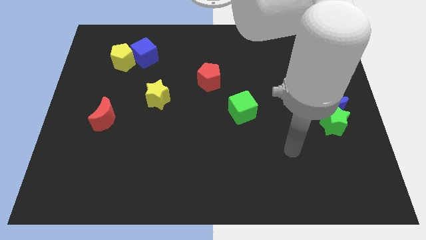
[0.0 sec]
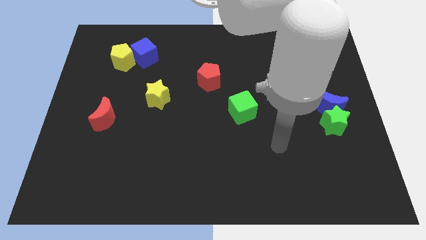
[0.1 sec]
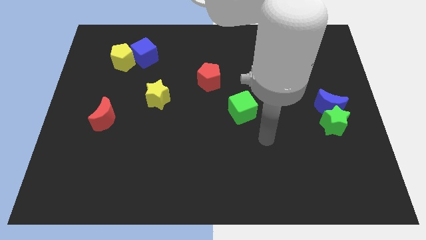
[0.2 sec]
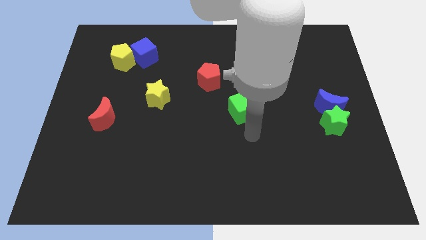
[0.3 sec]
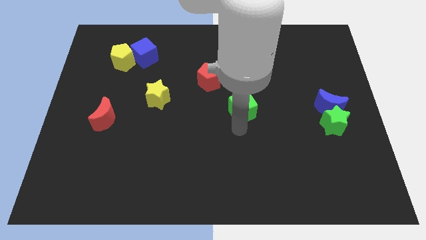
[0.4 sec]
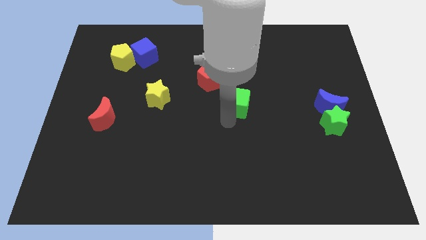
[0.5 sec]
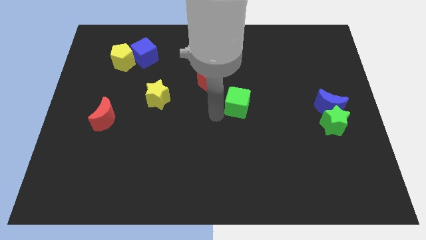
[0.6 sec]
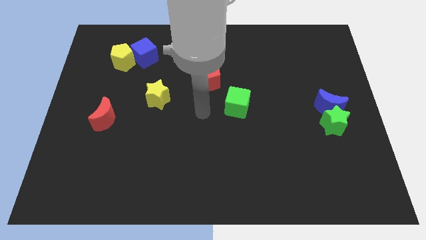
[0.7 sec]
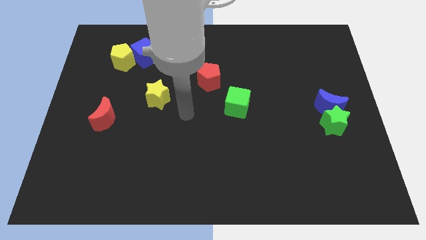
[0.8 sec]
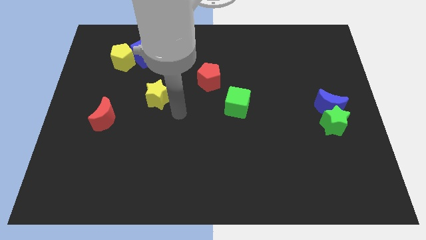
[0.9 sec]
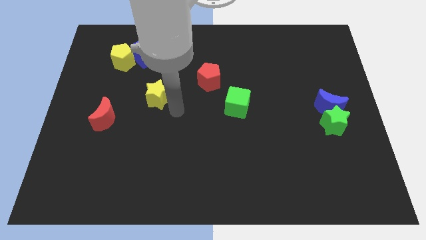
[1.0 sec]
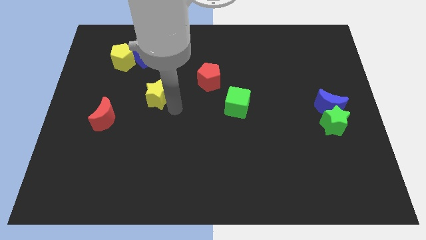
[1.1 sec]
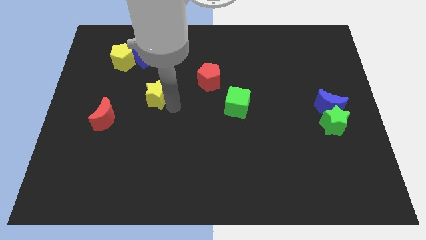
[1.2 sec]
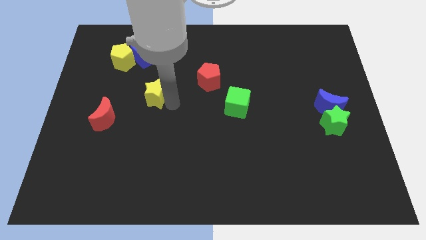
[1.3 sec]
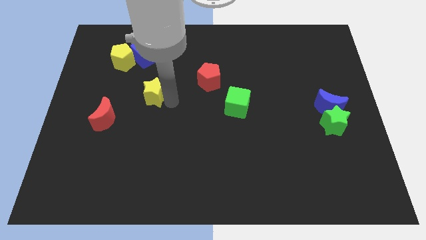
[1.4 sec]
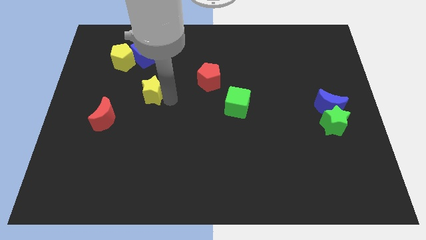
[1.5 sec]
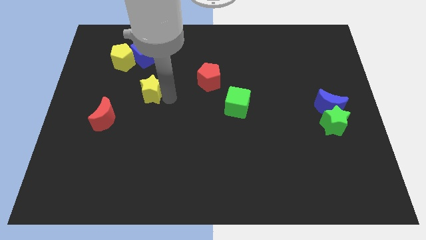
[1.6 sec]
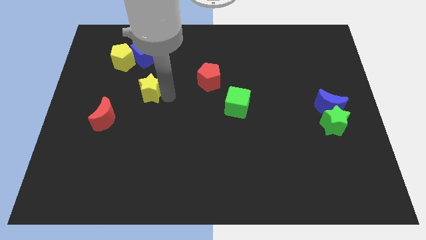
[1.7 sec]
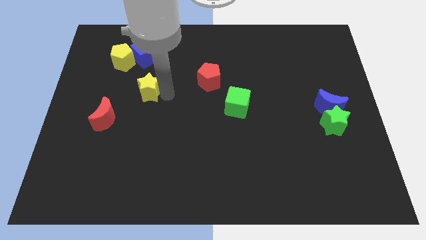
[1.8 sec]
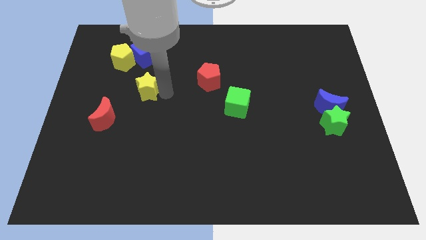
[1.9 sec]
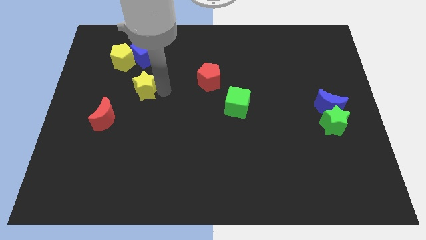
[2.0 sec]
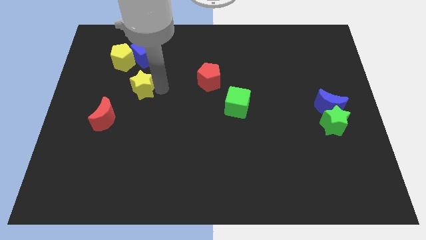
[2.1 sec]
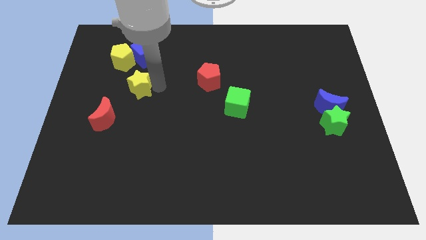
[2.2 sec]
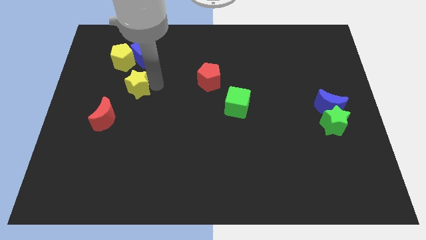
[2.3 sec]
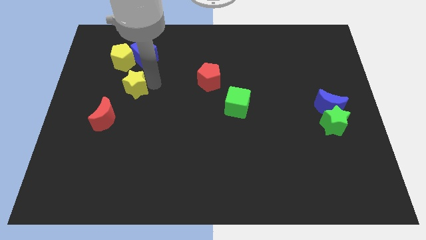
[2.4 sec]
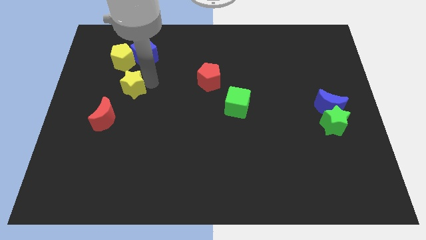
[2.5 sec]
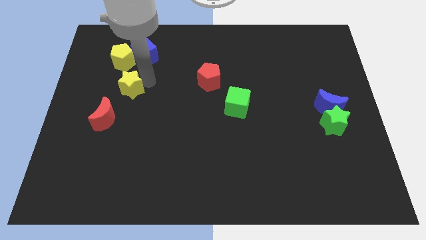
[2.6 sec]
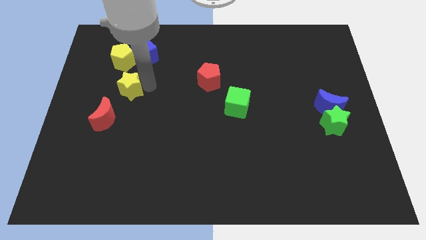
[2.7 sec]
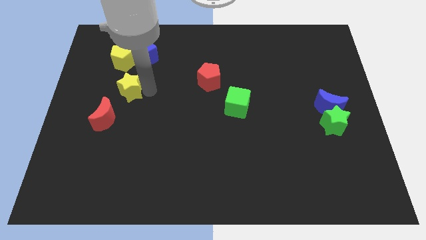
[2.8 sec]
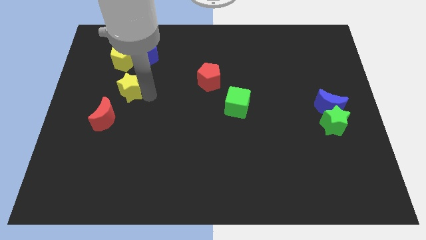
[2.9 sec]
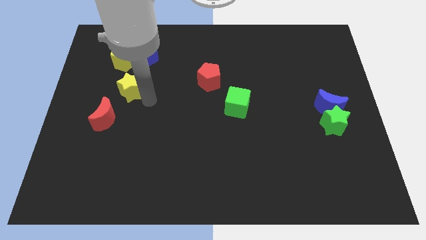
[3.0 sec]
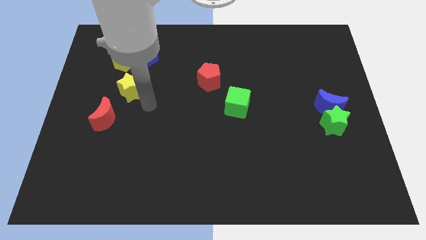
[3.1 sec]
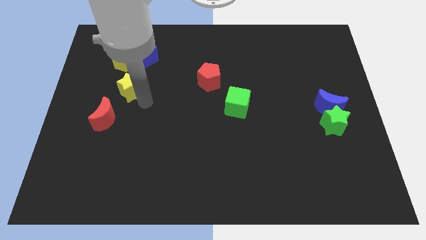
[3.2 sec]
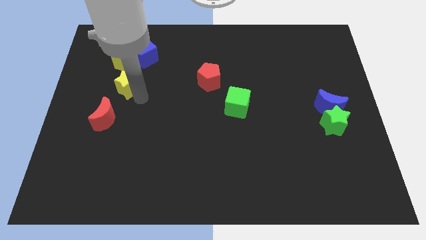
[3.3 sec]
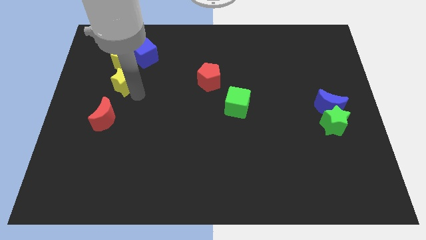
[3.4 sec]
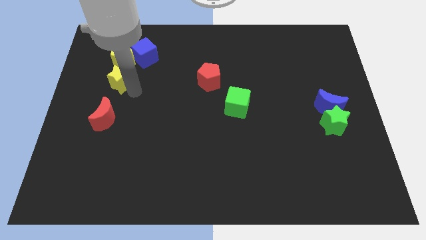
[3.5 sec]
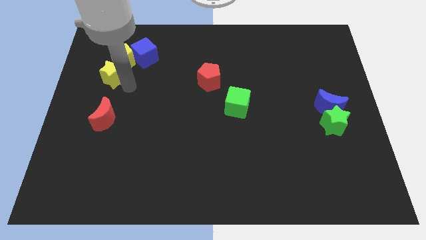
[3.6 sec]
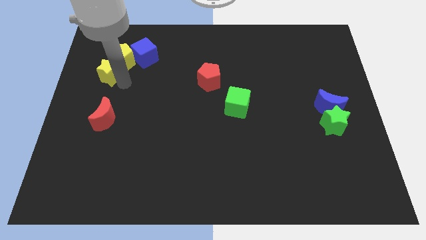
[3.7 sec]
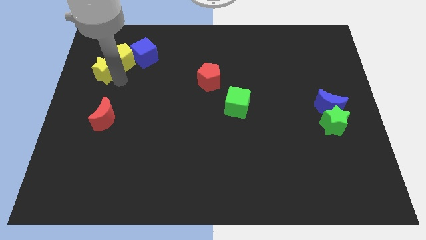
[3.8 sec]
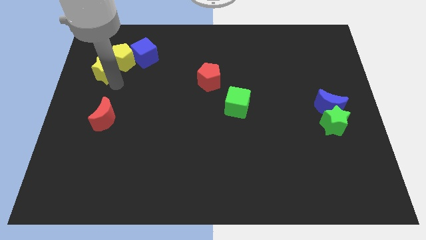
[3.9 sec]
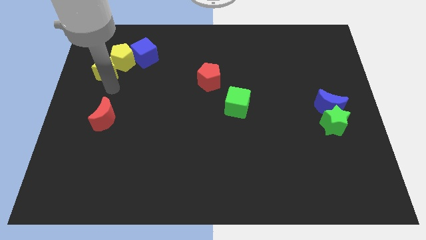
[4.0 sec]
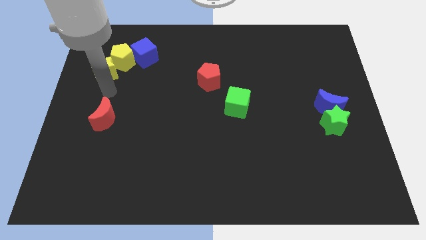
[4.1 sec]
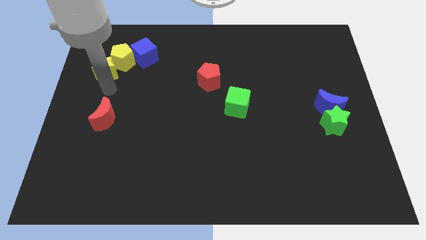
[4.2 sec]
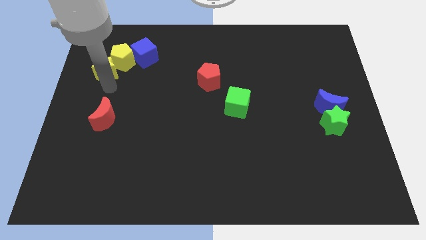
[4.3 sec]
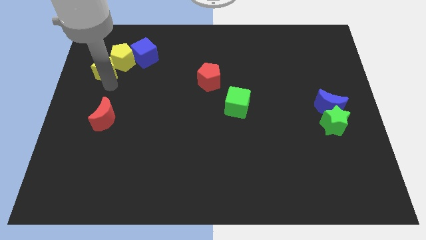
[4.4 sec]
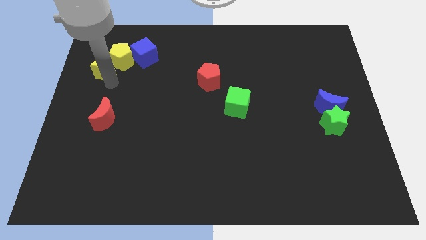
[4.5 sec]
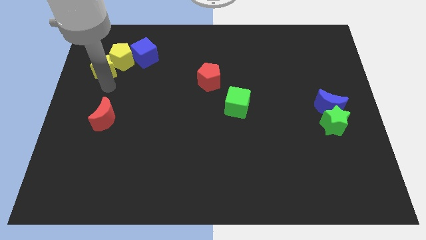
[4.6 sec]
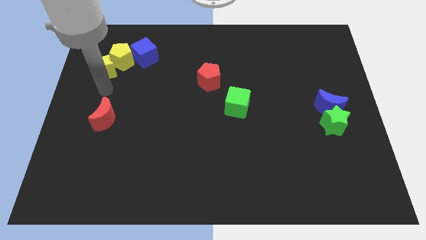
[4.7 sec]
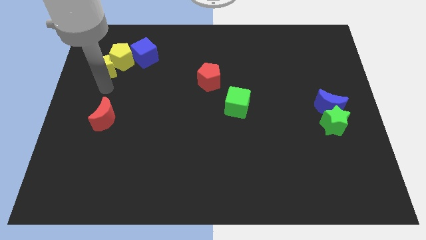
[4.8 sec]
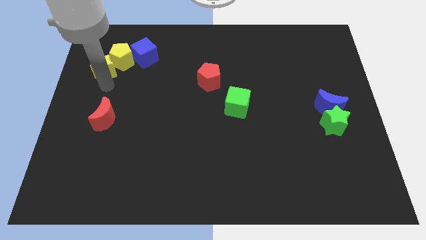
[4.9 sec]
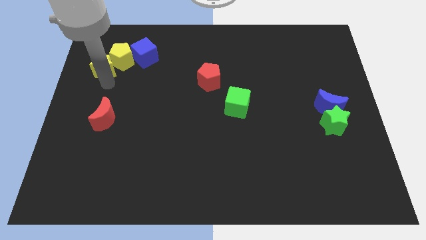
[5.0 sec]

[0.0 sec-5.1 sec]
push the yellow star to the left of the blue cube

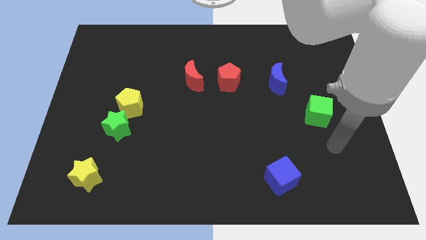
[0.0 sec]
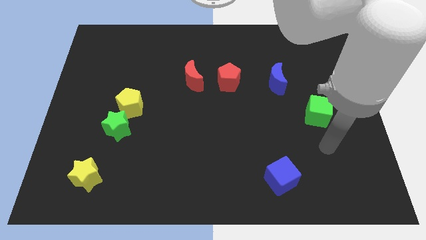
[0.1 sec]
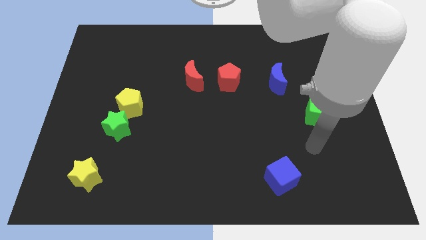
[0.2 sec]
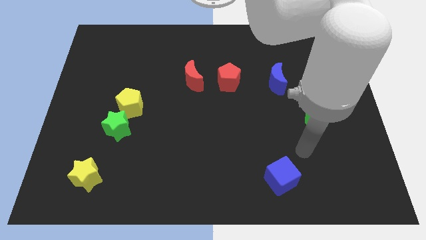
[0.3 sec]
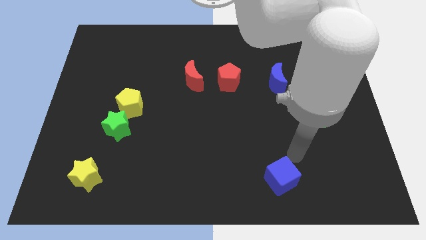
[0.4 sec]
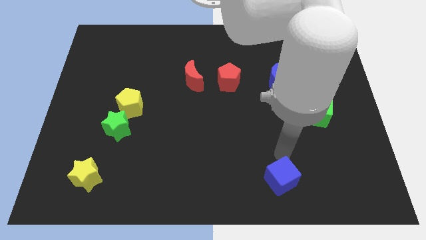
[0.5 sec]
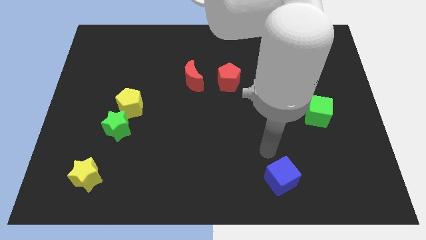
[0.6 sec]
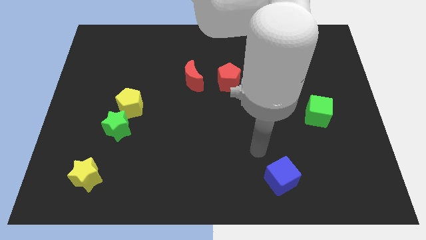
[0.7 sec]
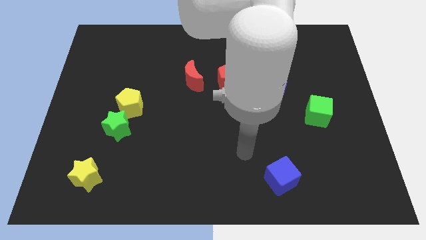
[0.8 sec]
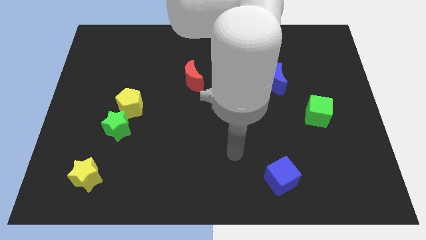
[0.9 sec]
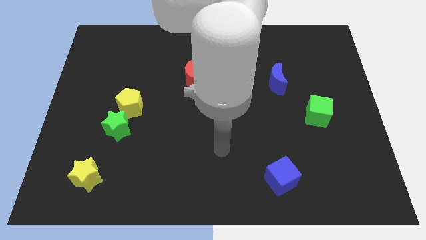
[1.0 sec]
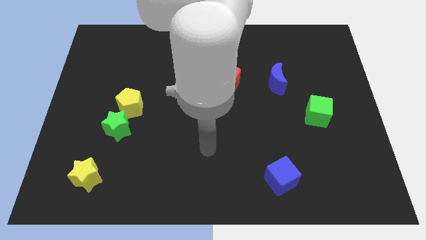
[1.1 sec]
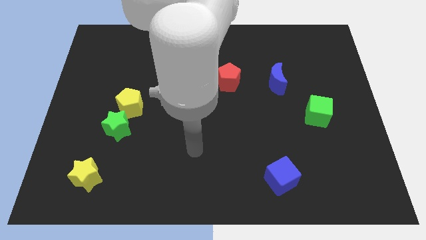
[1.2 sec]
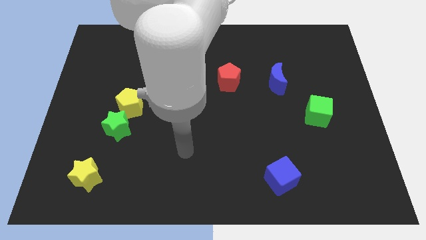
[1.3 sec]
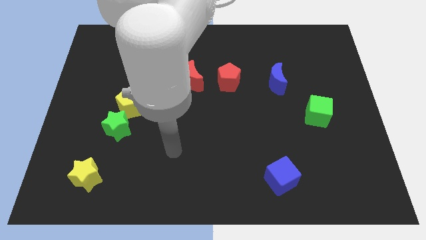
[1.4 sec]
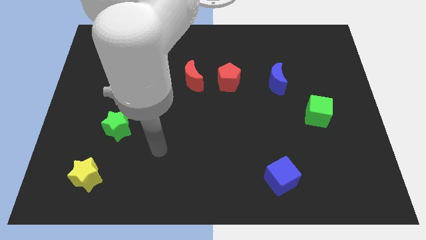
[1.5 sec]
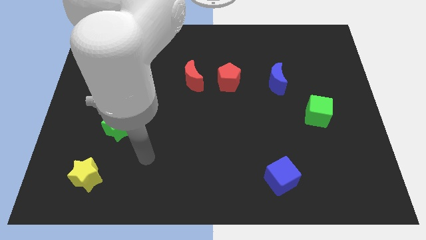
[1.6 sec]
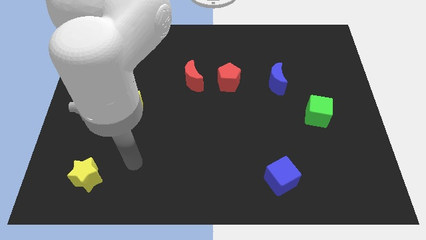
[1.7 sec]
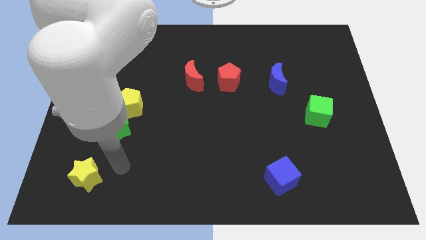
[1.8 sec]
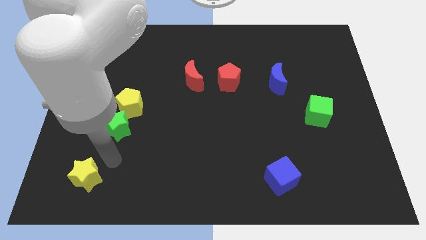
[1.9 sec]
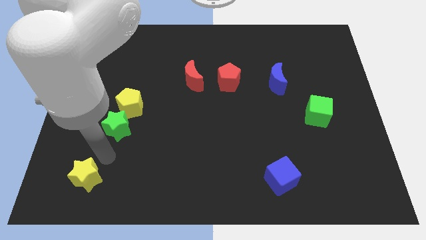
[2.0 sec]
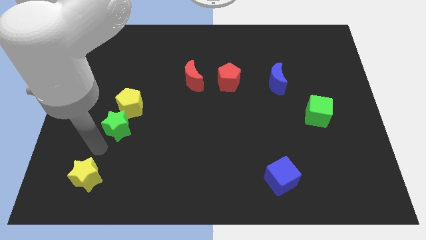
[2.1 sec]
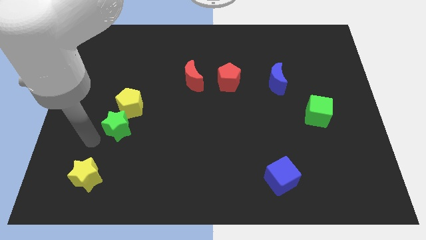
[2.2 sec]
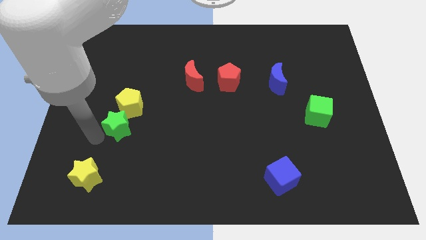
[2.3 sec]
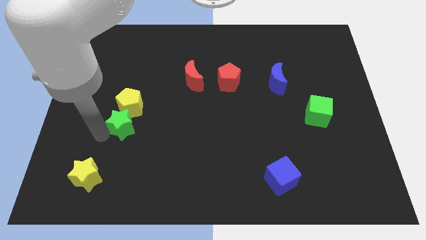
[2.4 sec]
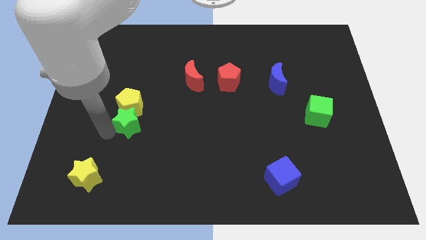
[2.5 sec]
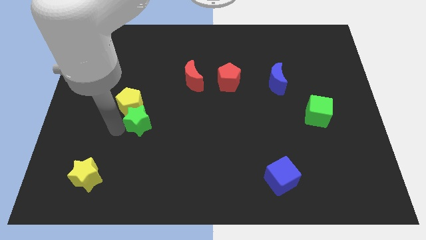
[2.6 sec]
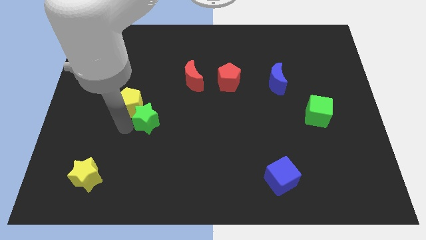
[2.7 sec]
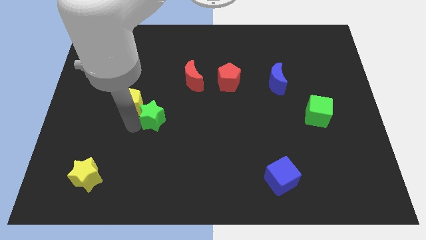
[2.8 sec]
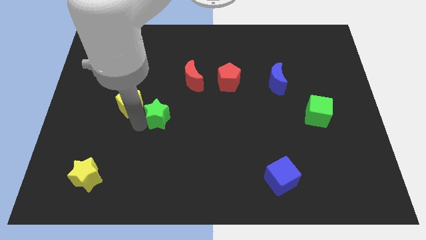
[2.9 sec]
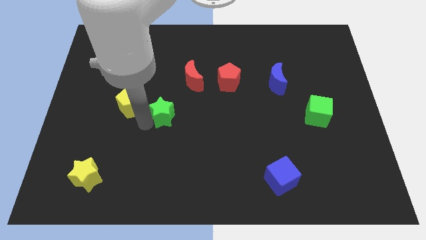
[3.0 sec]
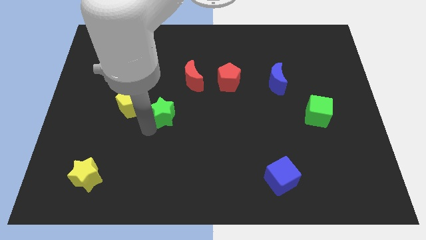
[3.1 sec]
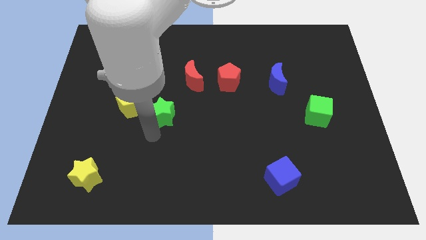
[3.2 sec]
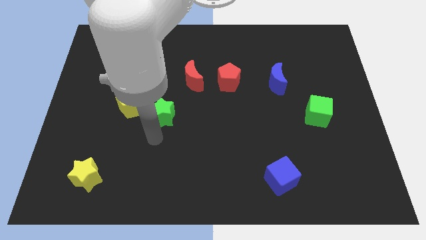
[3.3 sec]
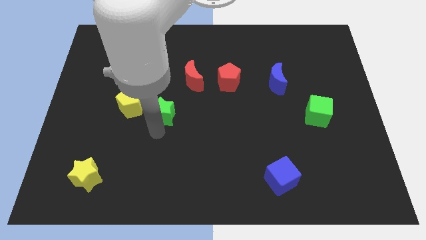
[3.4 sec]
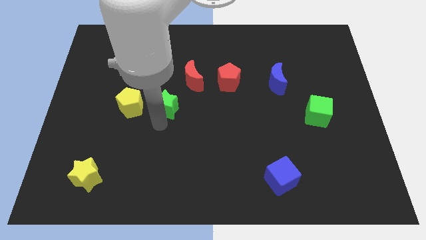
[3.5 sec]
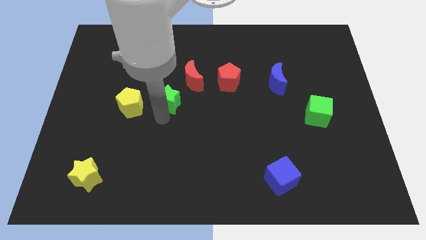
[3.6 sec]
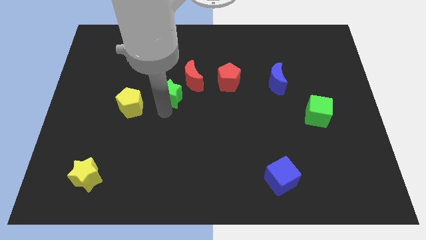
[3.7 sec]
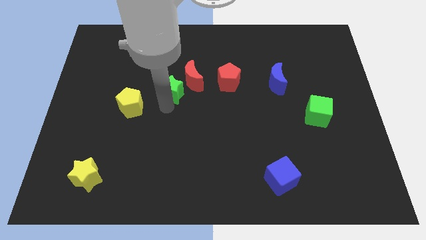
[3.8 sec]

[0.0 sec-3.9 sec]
move the green star left of the red pentagon
